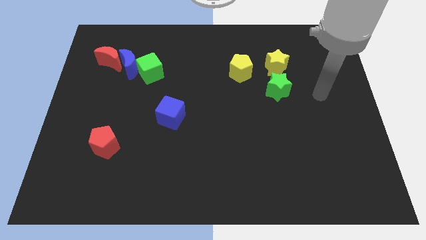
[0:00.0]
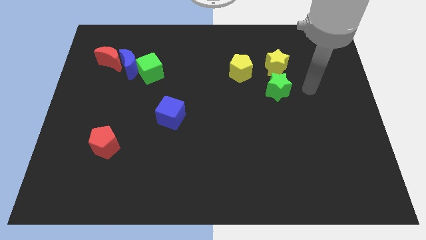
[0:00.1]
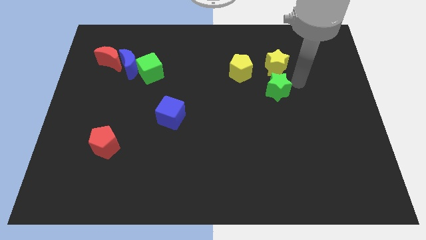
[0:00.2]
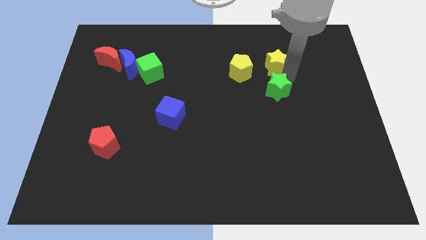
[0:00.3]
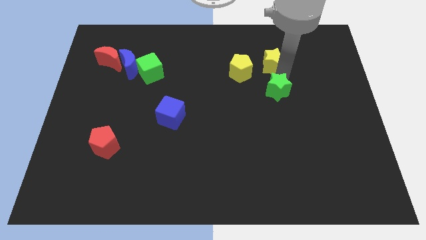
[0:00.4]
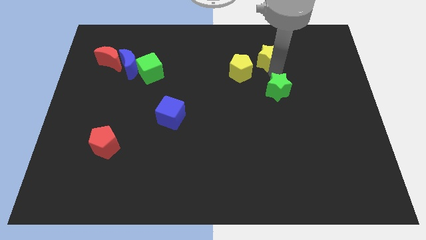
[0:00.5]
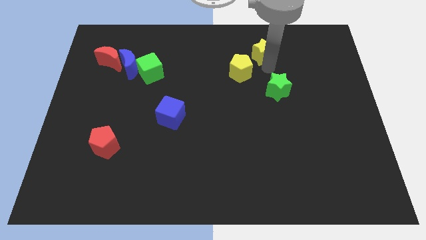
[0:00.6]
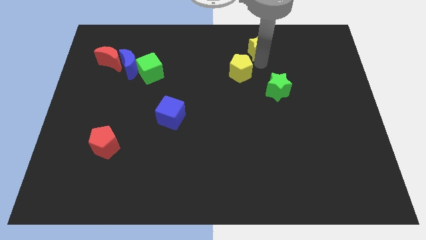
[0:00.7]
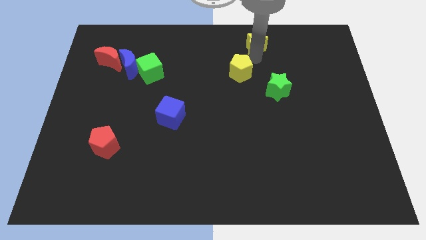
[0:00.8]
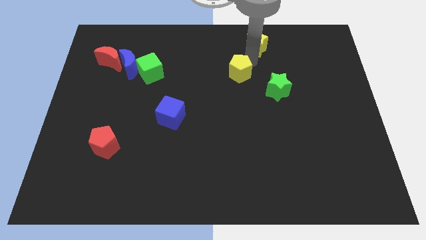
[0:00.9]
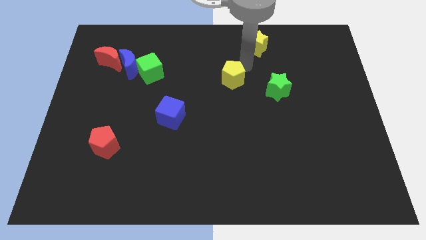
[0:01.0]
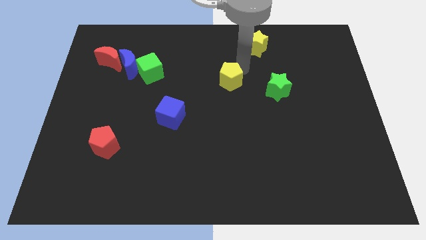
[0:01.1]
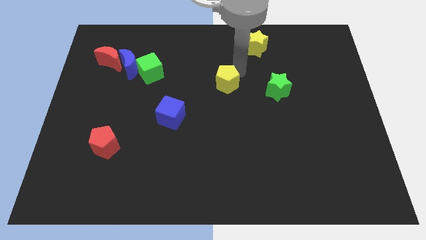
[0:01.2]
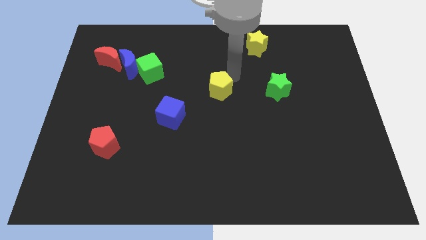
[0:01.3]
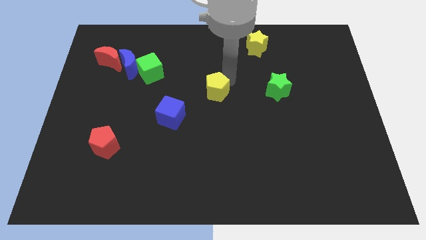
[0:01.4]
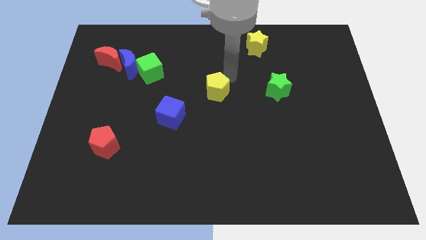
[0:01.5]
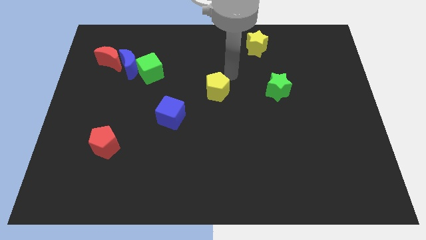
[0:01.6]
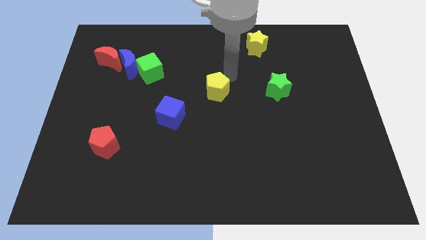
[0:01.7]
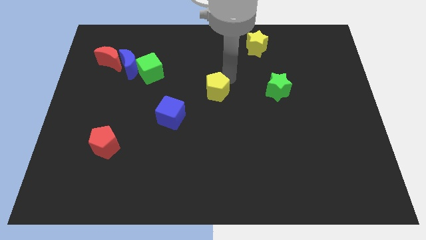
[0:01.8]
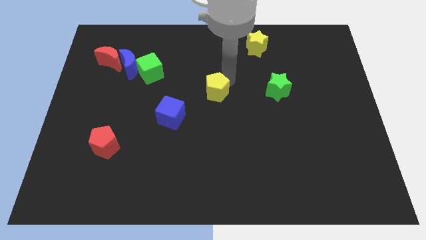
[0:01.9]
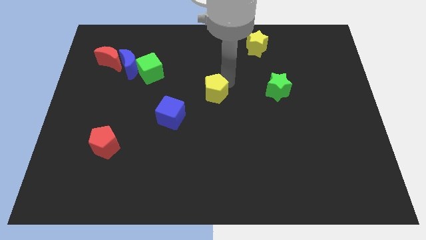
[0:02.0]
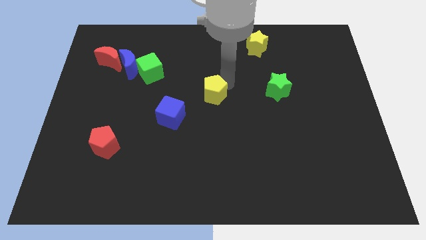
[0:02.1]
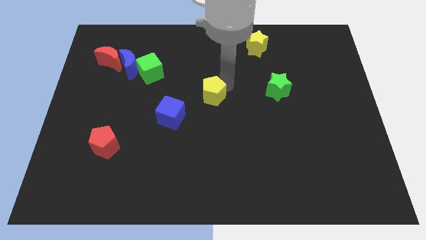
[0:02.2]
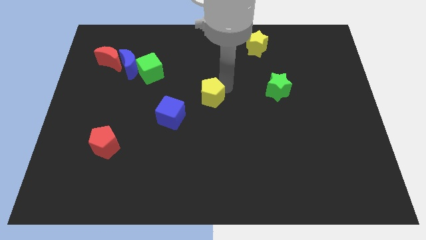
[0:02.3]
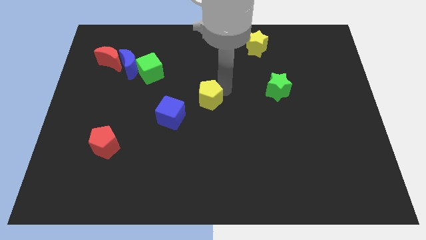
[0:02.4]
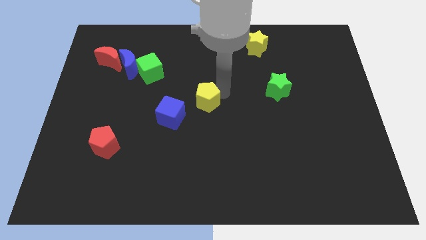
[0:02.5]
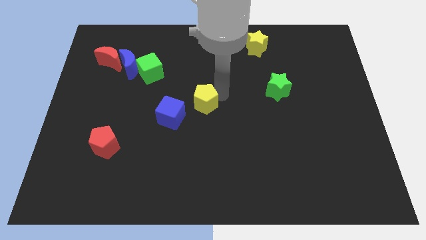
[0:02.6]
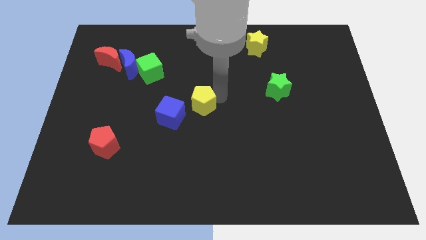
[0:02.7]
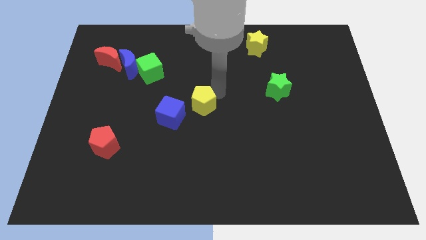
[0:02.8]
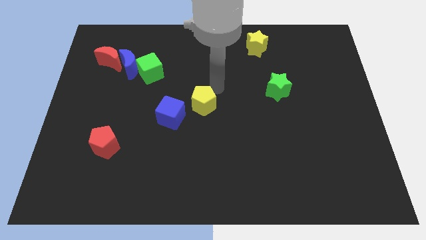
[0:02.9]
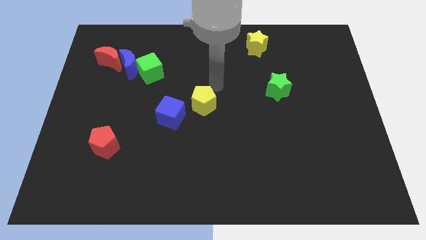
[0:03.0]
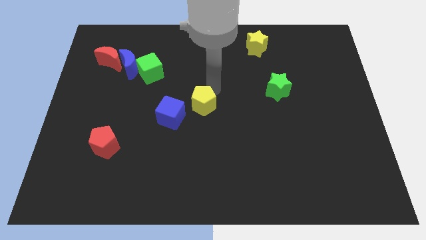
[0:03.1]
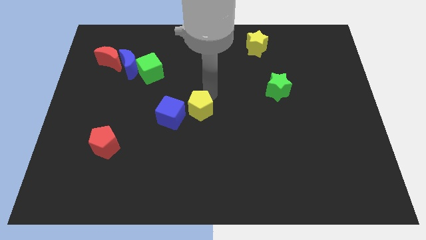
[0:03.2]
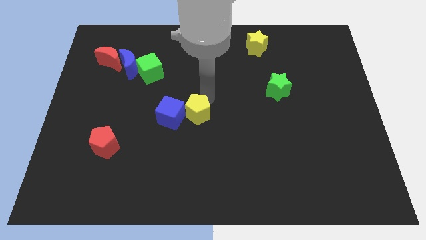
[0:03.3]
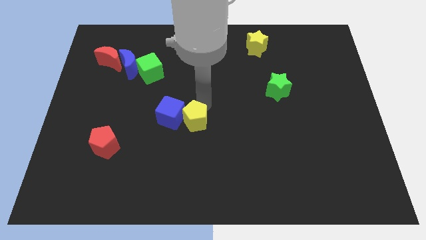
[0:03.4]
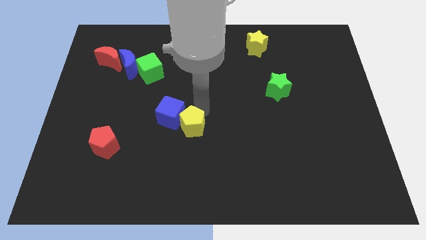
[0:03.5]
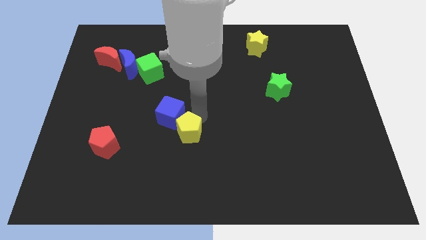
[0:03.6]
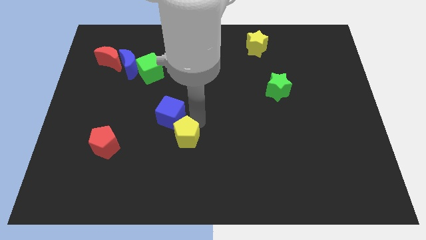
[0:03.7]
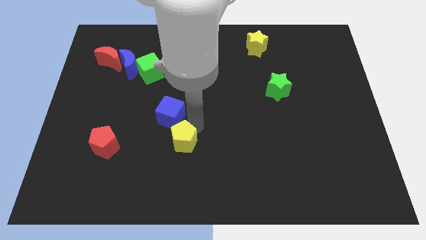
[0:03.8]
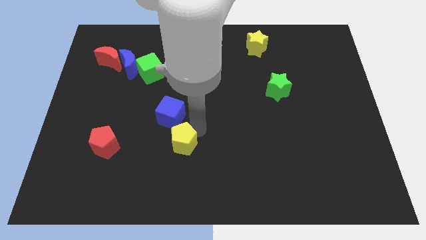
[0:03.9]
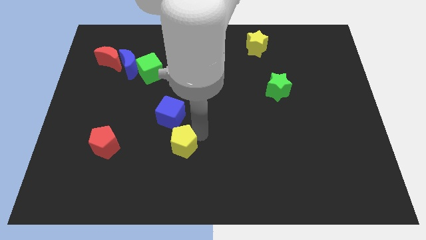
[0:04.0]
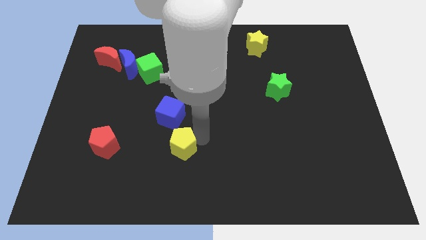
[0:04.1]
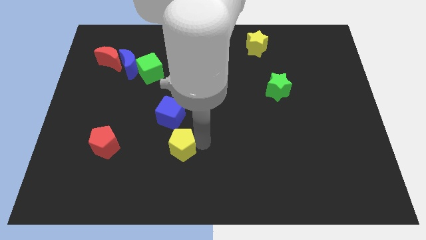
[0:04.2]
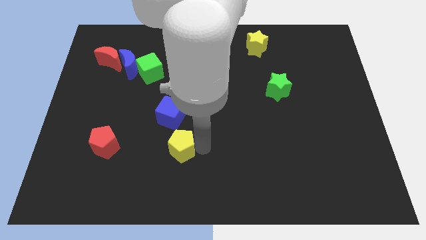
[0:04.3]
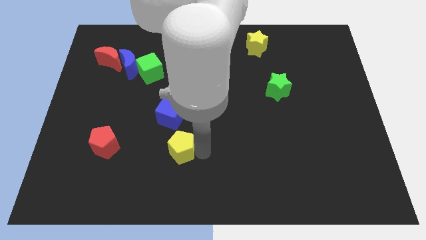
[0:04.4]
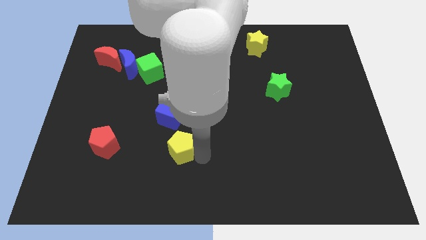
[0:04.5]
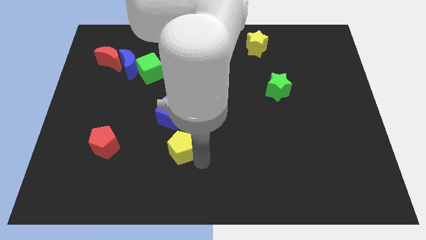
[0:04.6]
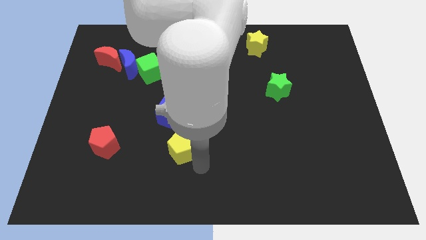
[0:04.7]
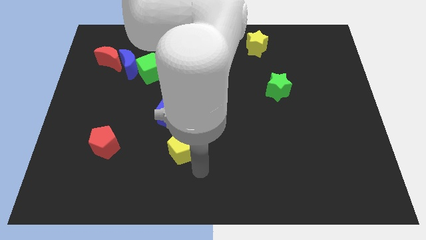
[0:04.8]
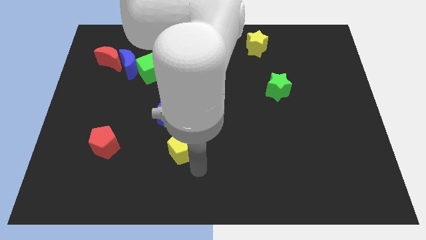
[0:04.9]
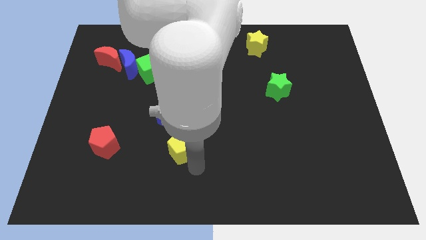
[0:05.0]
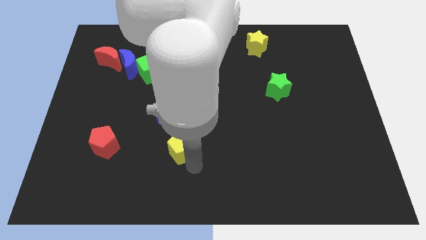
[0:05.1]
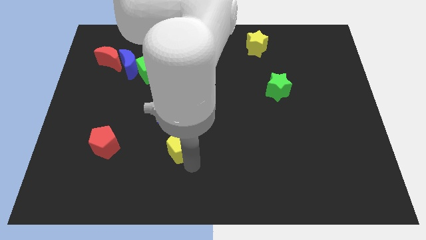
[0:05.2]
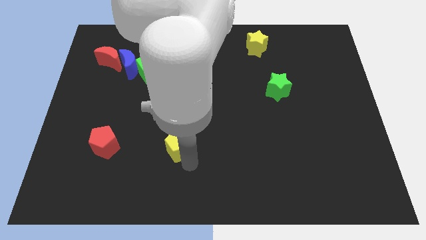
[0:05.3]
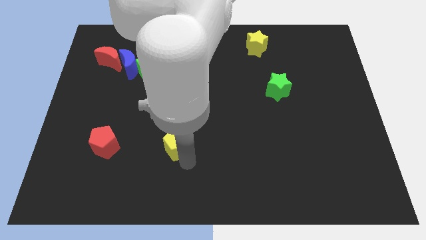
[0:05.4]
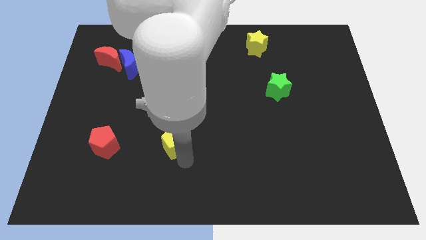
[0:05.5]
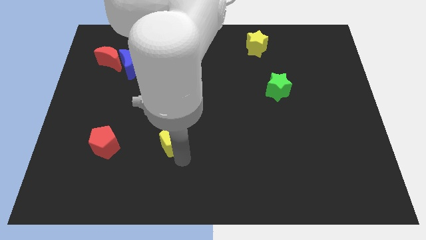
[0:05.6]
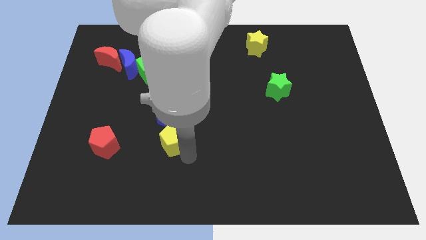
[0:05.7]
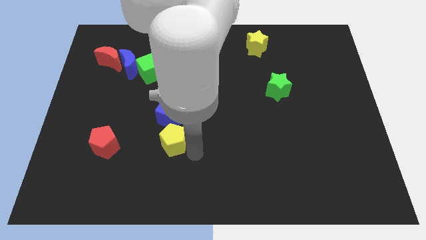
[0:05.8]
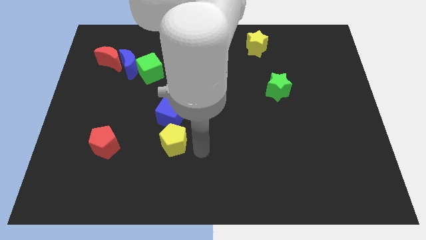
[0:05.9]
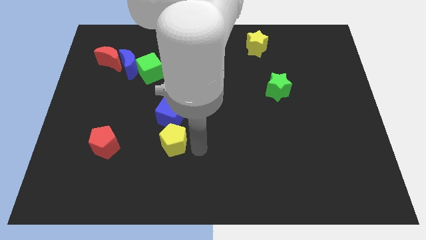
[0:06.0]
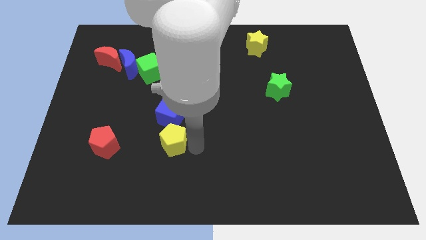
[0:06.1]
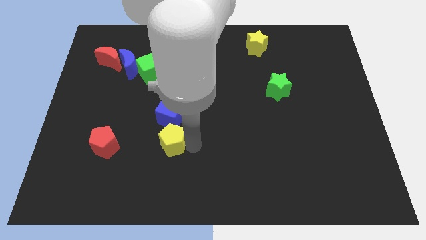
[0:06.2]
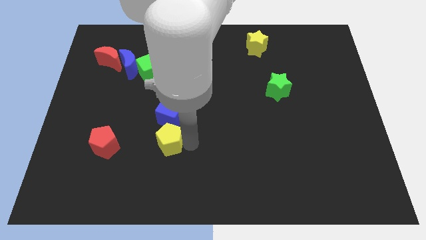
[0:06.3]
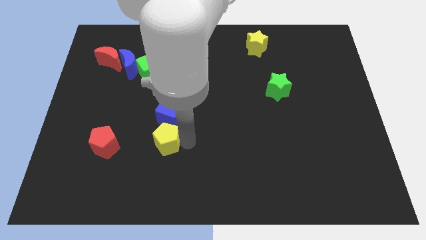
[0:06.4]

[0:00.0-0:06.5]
put the yellow pentagon to the bottom left side of the blue cube
